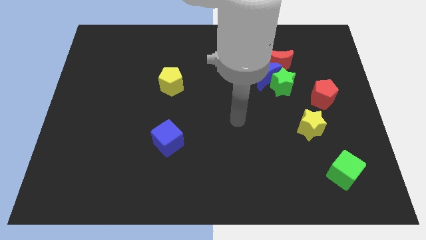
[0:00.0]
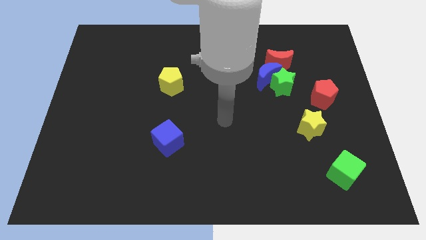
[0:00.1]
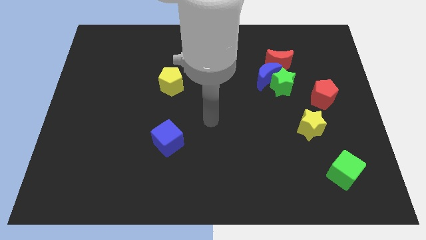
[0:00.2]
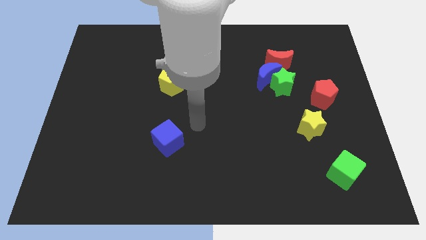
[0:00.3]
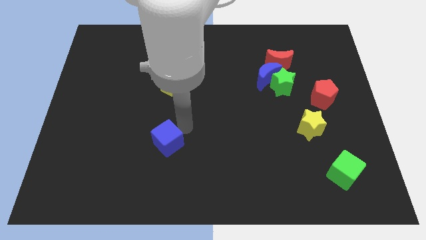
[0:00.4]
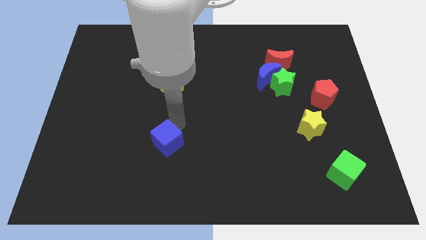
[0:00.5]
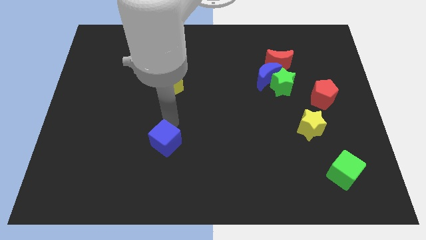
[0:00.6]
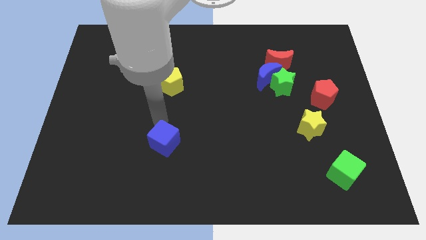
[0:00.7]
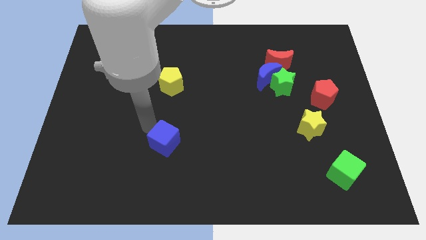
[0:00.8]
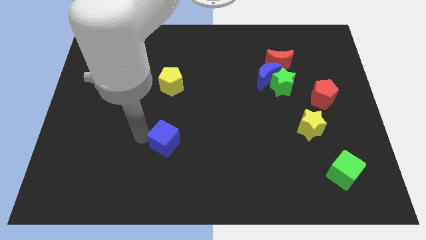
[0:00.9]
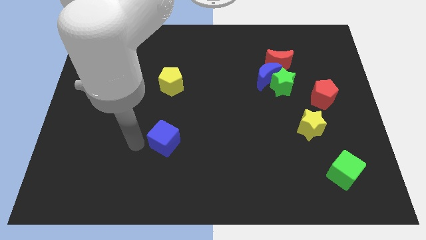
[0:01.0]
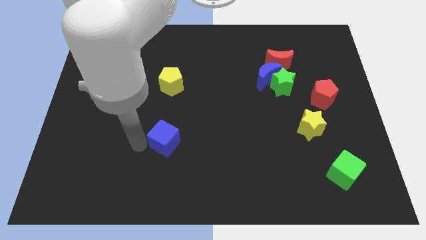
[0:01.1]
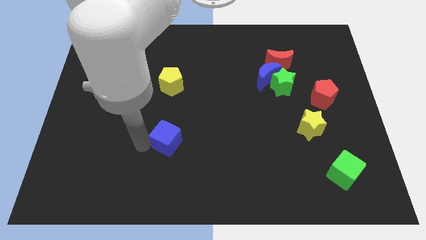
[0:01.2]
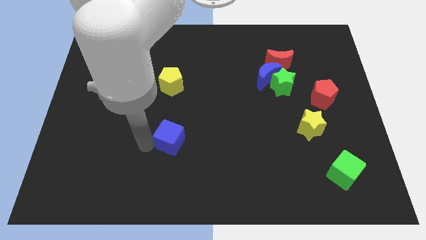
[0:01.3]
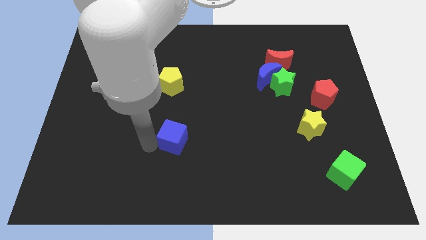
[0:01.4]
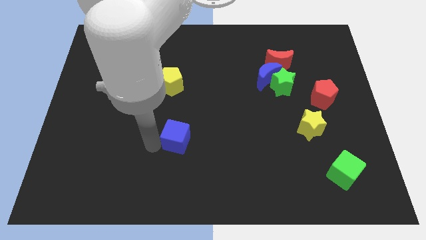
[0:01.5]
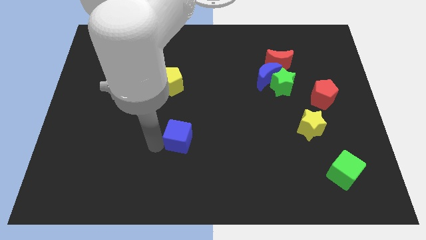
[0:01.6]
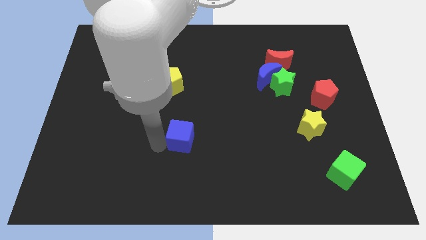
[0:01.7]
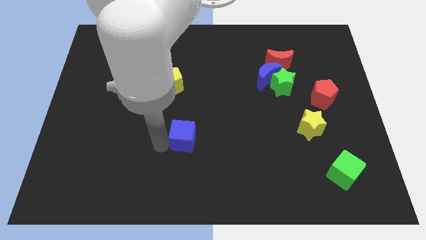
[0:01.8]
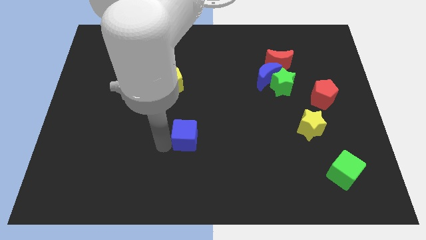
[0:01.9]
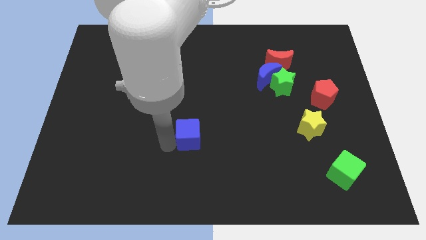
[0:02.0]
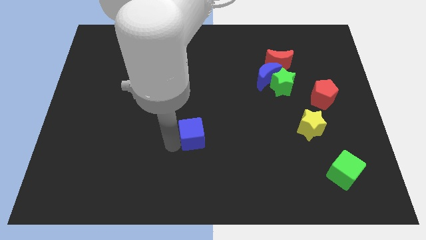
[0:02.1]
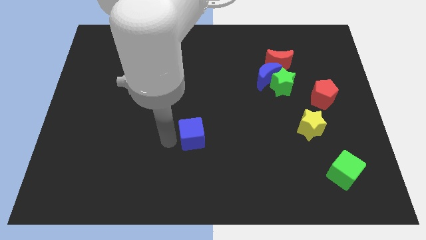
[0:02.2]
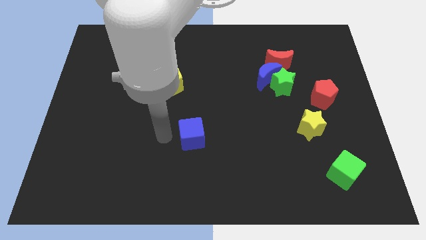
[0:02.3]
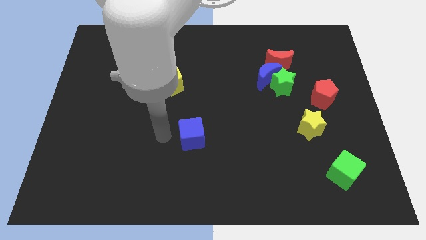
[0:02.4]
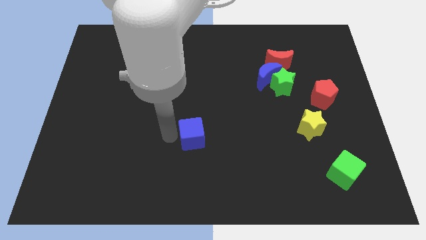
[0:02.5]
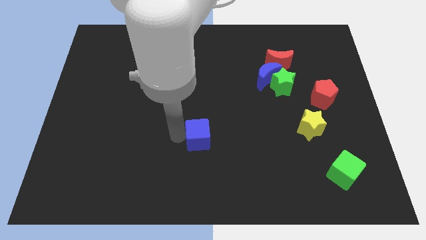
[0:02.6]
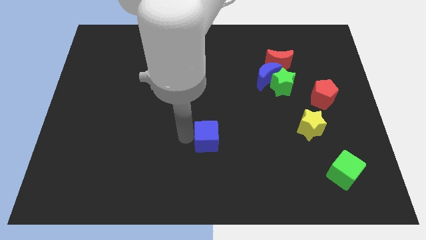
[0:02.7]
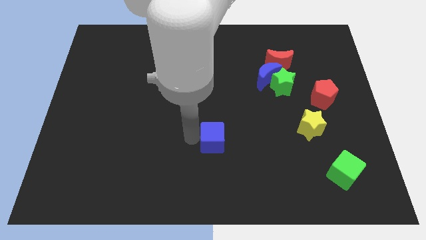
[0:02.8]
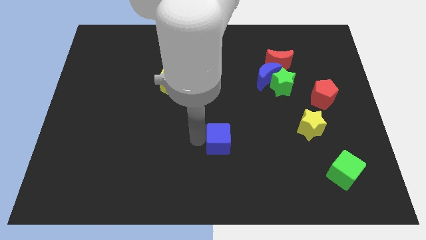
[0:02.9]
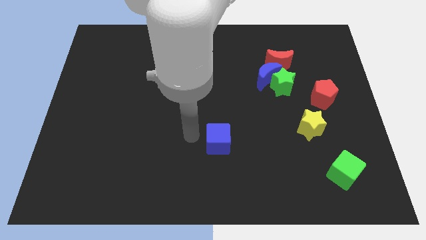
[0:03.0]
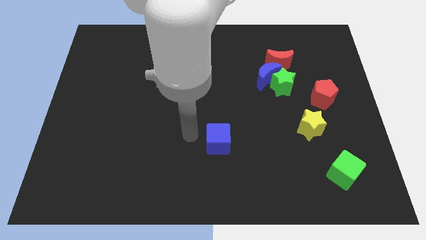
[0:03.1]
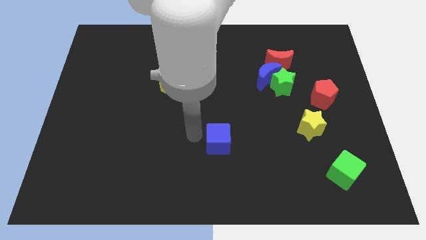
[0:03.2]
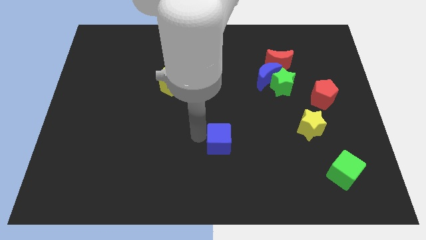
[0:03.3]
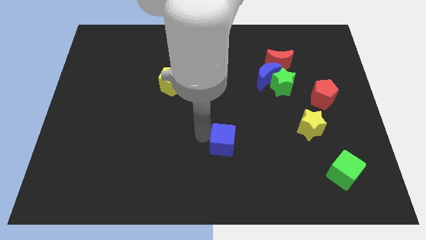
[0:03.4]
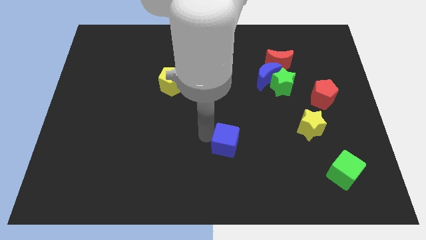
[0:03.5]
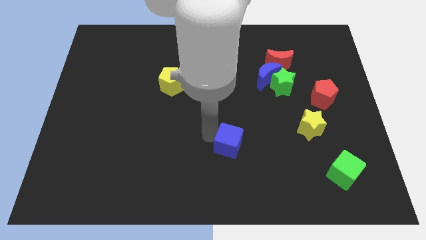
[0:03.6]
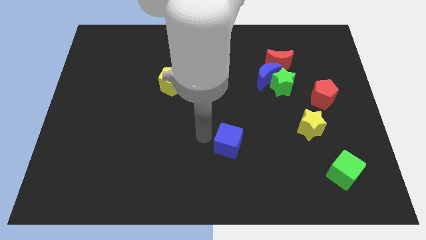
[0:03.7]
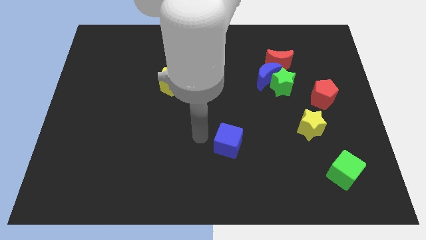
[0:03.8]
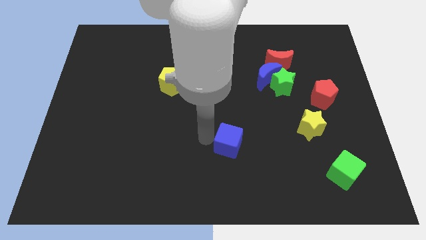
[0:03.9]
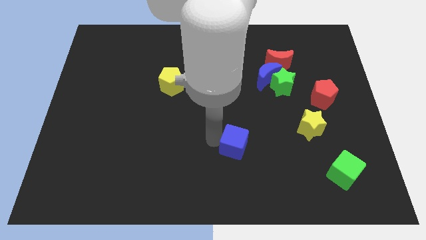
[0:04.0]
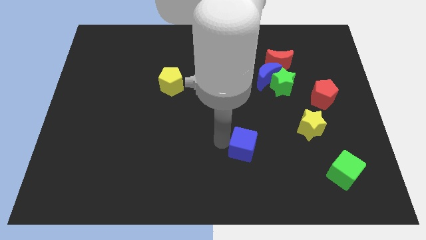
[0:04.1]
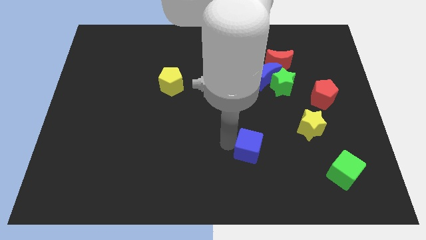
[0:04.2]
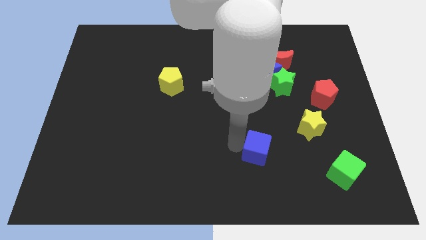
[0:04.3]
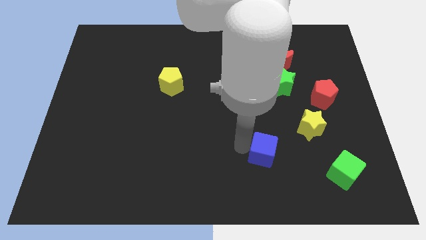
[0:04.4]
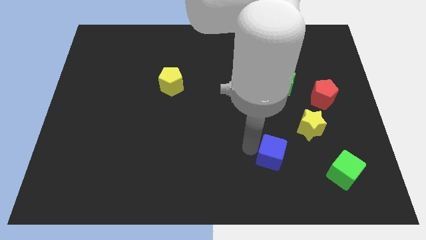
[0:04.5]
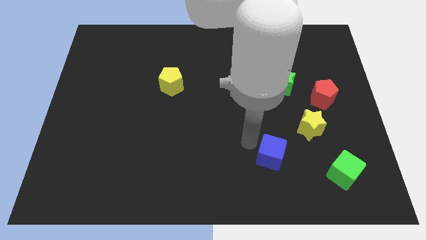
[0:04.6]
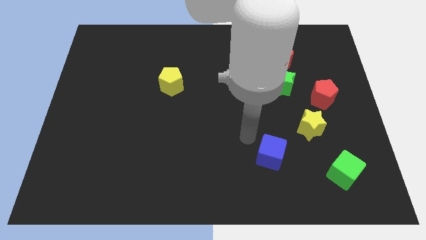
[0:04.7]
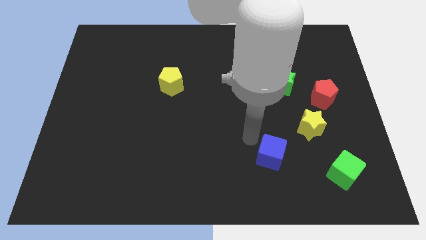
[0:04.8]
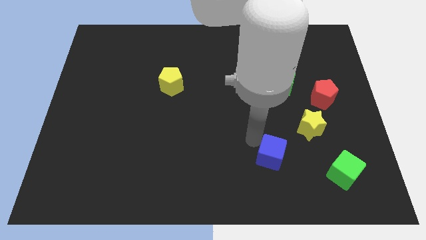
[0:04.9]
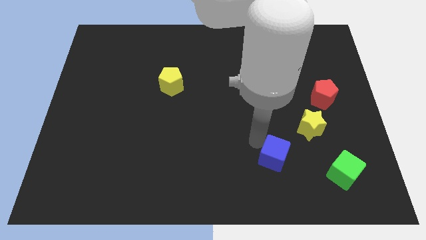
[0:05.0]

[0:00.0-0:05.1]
push the blue cube just left of the green cube

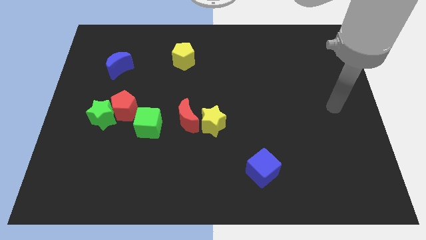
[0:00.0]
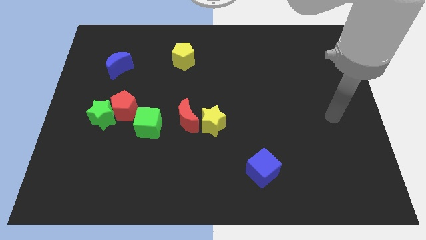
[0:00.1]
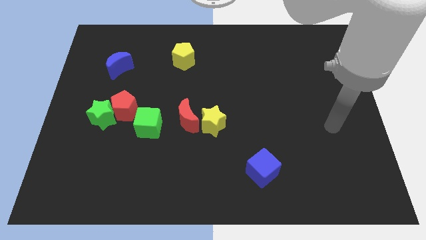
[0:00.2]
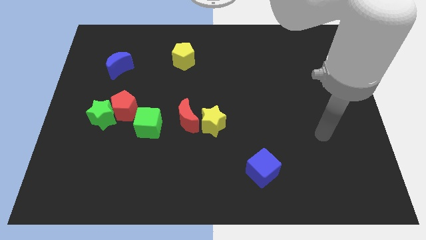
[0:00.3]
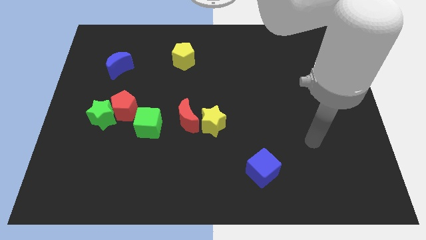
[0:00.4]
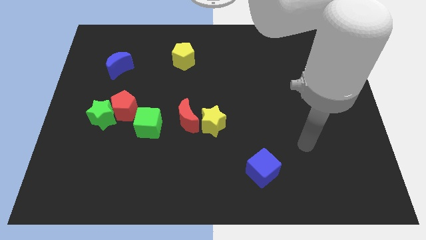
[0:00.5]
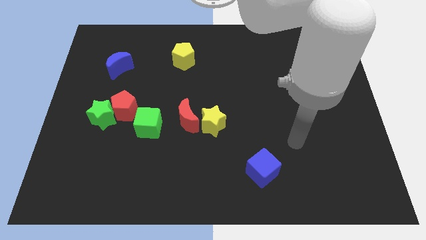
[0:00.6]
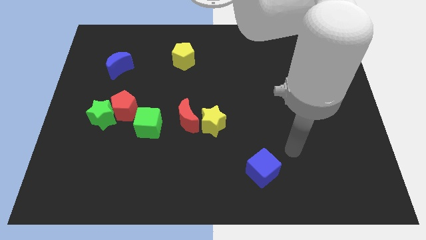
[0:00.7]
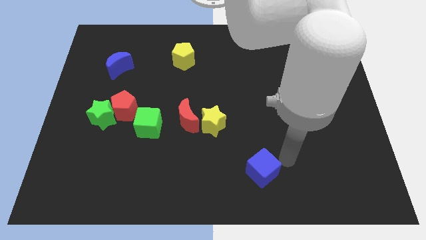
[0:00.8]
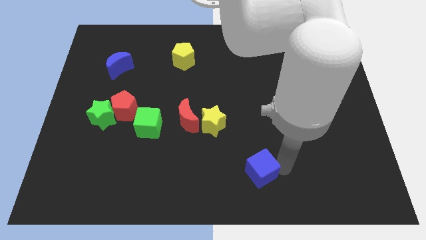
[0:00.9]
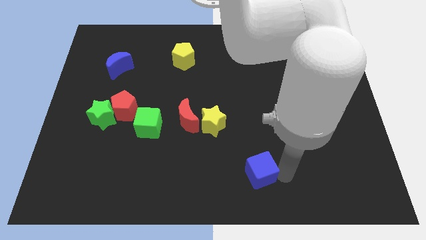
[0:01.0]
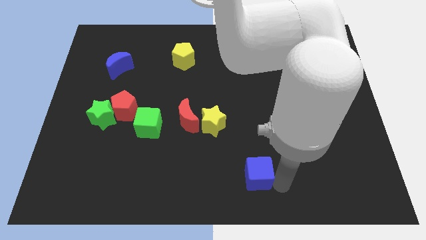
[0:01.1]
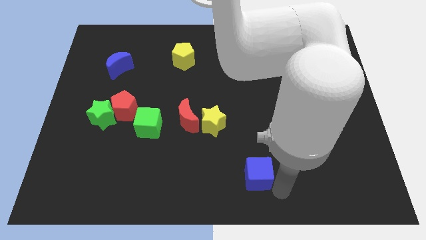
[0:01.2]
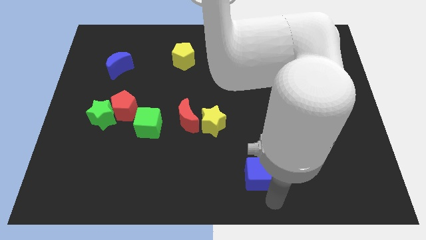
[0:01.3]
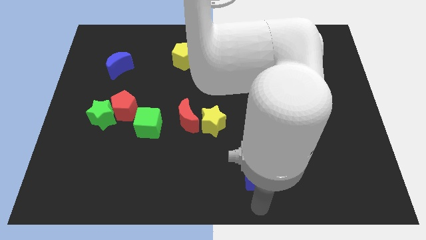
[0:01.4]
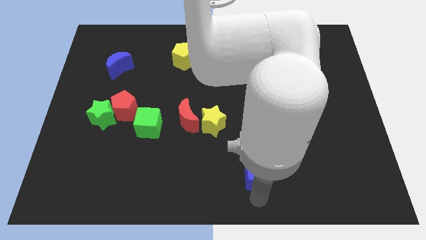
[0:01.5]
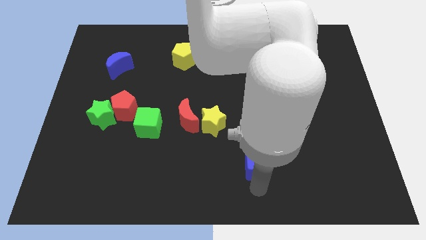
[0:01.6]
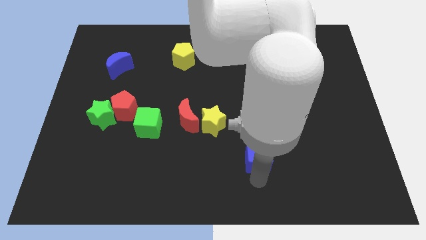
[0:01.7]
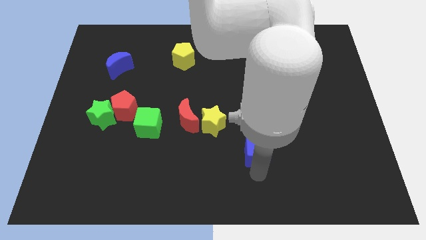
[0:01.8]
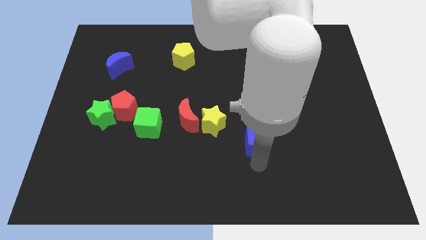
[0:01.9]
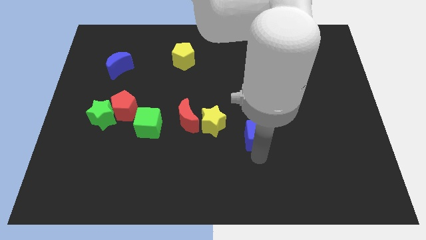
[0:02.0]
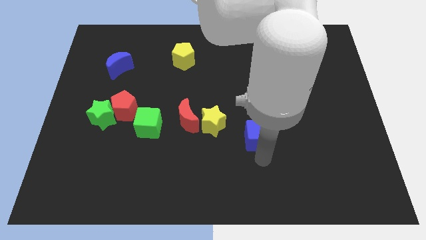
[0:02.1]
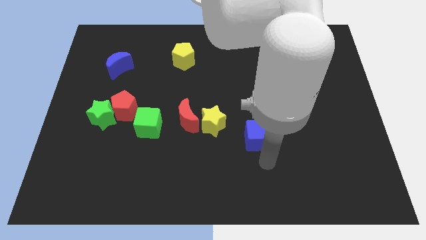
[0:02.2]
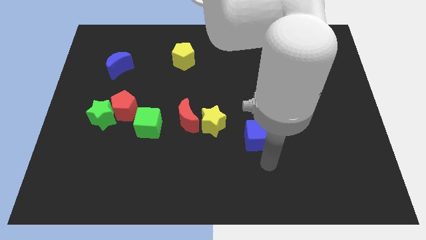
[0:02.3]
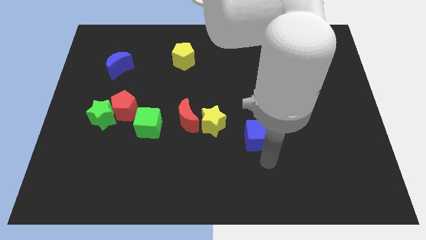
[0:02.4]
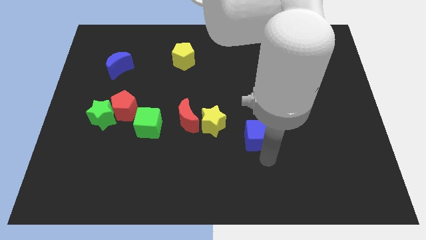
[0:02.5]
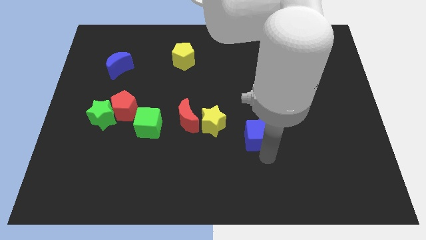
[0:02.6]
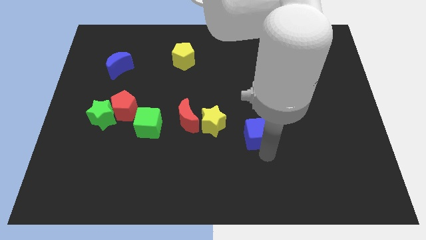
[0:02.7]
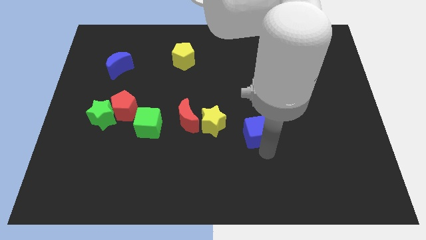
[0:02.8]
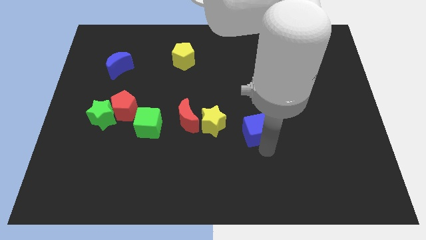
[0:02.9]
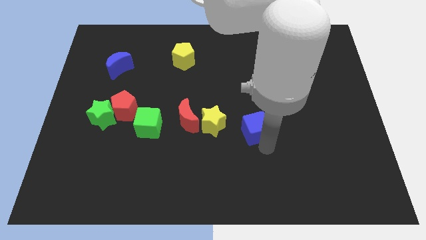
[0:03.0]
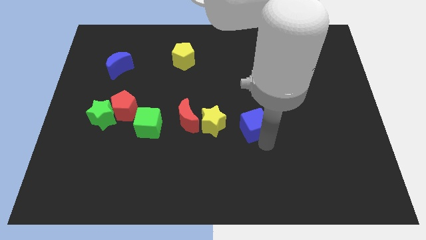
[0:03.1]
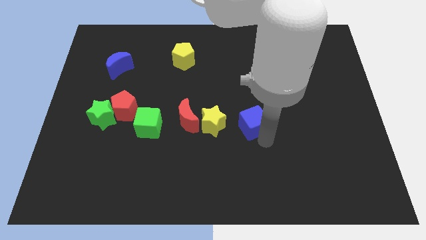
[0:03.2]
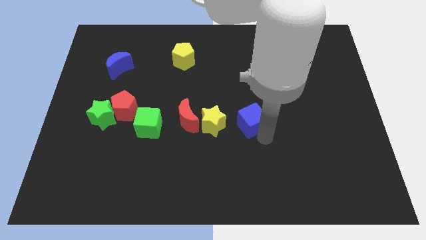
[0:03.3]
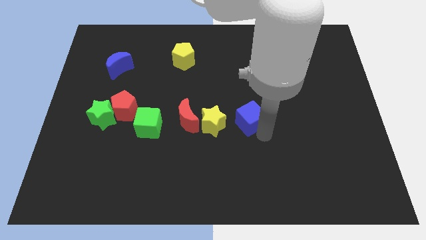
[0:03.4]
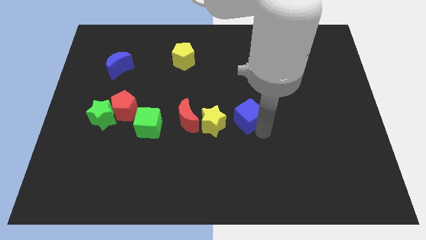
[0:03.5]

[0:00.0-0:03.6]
move the blue cube diagonally up and to the right of the yellow star
